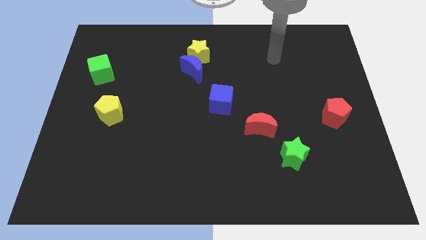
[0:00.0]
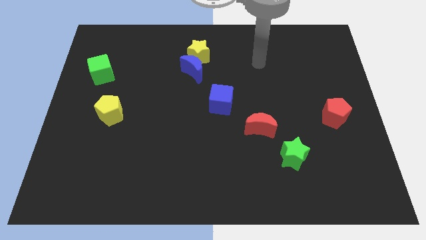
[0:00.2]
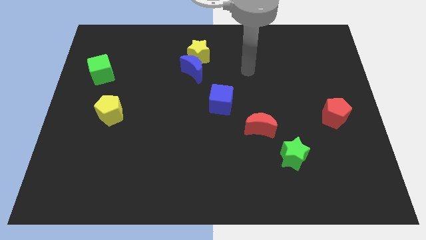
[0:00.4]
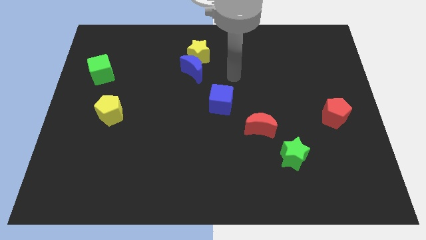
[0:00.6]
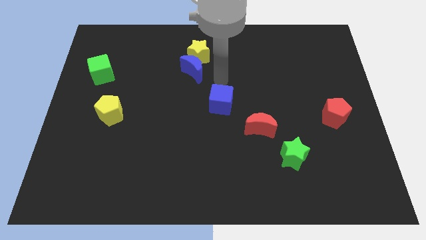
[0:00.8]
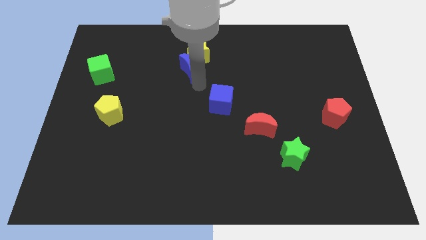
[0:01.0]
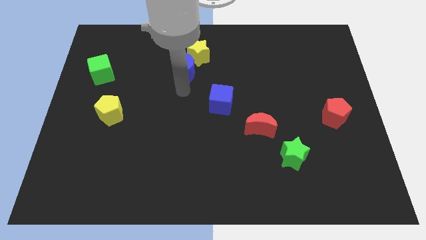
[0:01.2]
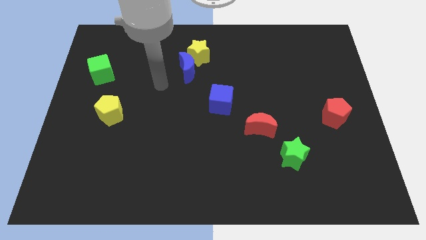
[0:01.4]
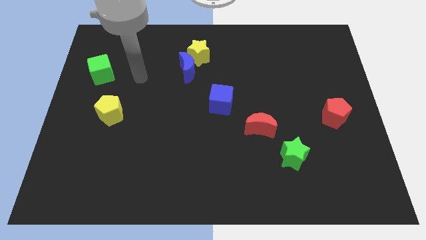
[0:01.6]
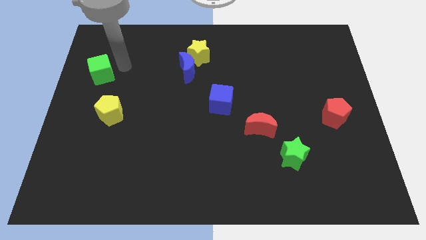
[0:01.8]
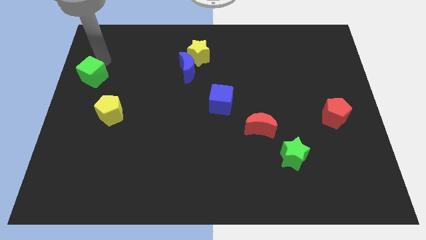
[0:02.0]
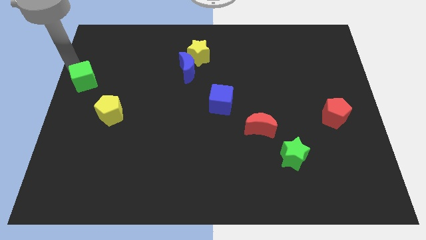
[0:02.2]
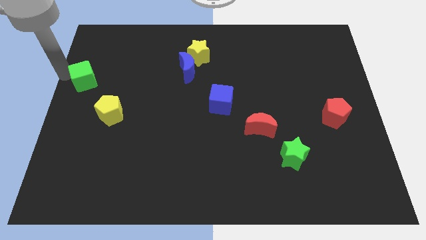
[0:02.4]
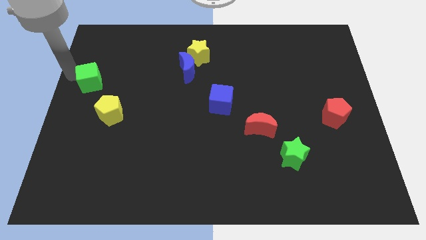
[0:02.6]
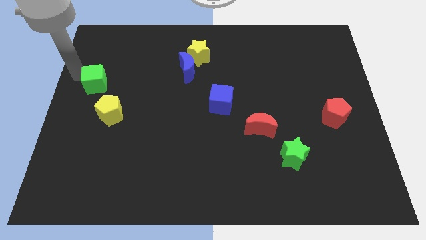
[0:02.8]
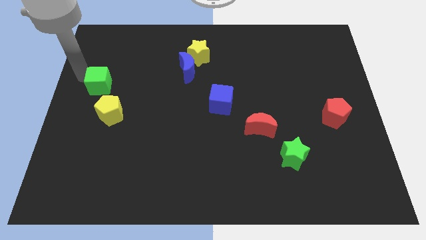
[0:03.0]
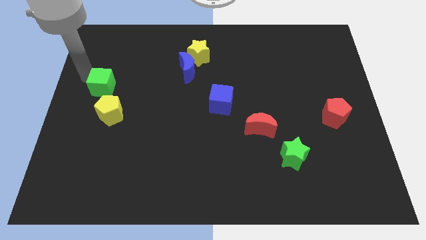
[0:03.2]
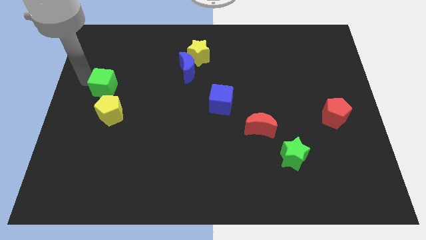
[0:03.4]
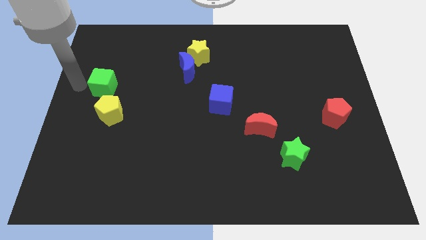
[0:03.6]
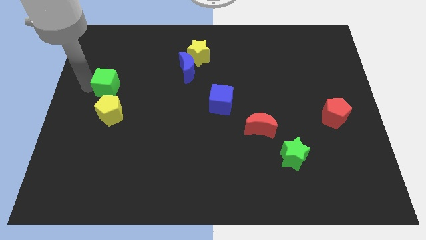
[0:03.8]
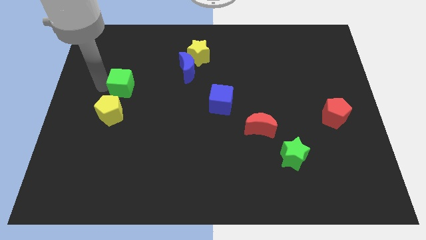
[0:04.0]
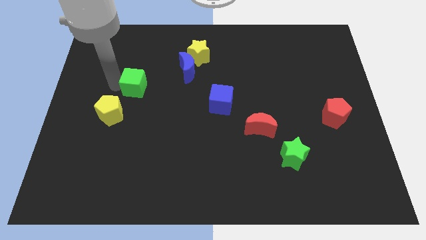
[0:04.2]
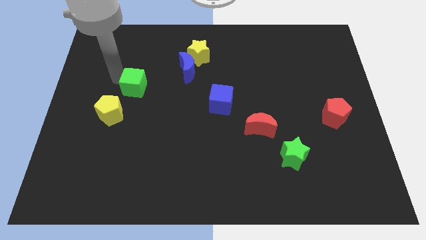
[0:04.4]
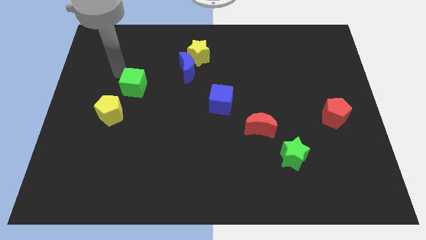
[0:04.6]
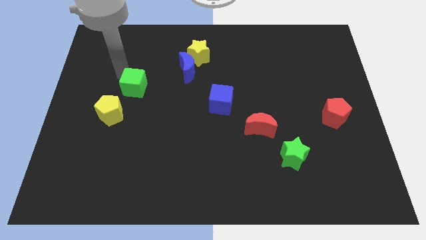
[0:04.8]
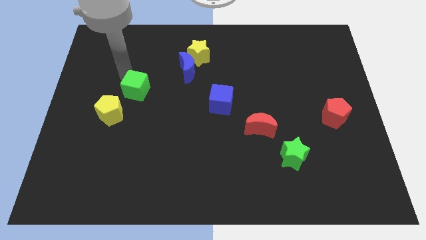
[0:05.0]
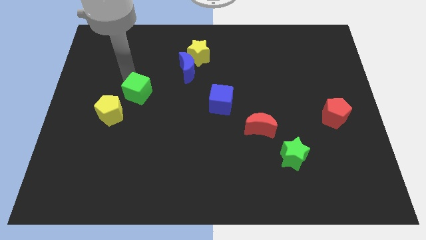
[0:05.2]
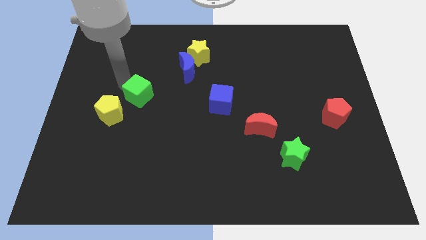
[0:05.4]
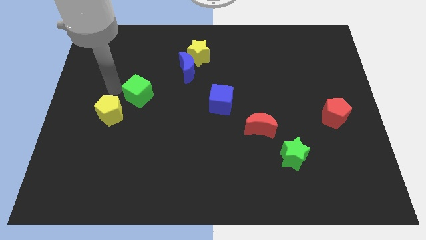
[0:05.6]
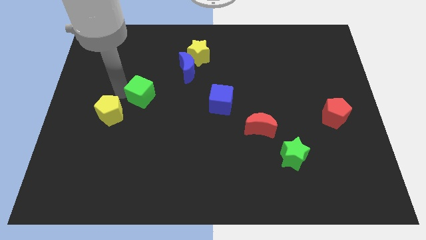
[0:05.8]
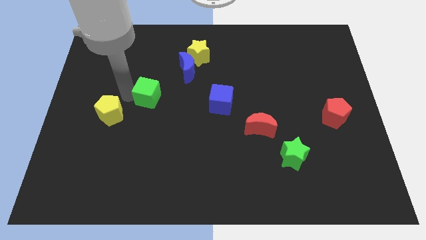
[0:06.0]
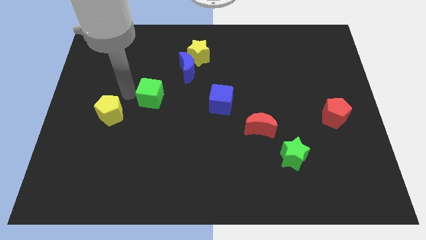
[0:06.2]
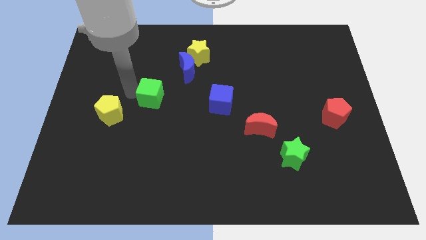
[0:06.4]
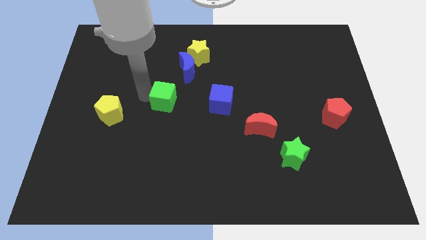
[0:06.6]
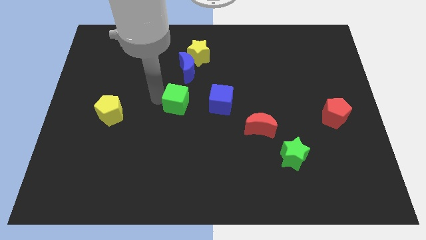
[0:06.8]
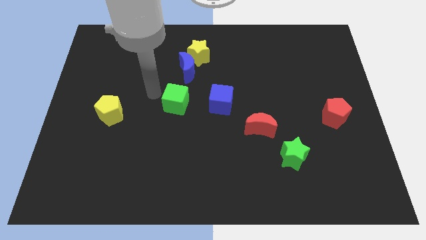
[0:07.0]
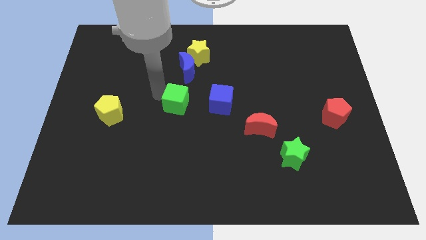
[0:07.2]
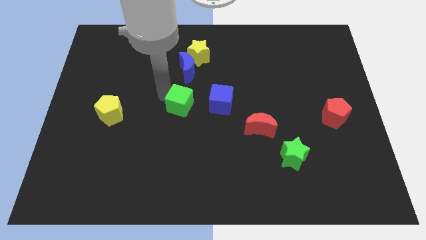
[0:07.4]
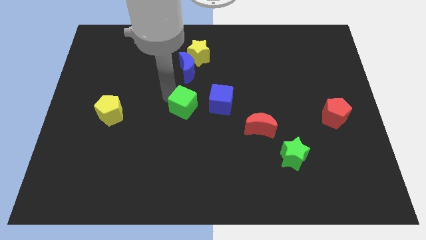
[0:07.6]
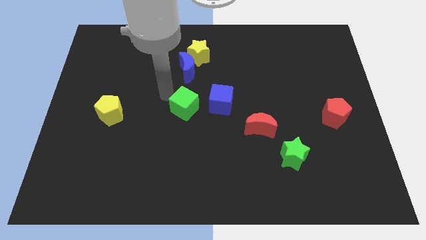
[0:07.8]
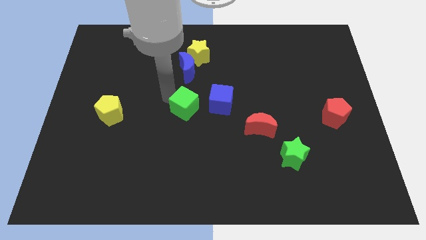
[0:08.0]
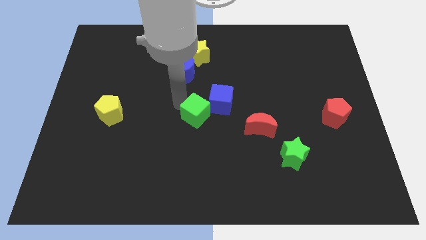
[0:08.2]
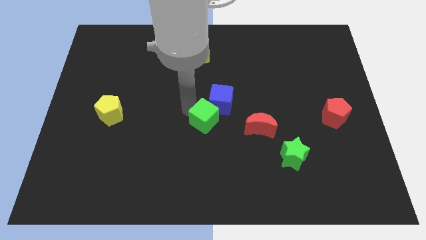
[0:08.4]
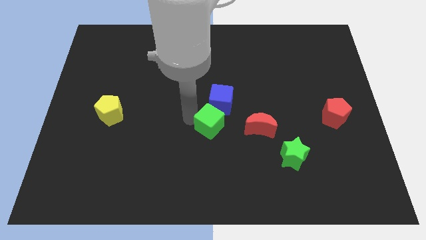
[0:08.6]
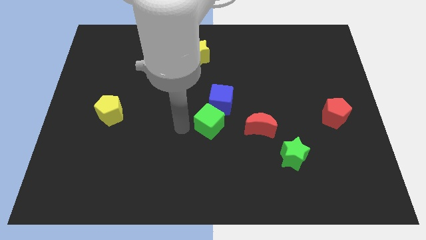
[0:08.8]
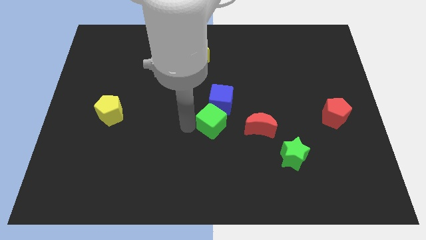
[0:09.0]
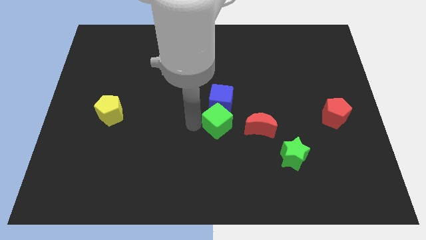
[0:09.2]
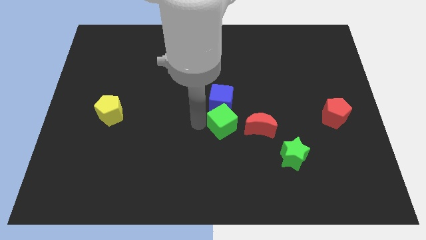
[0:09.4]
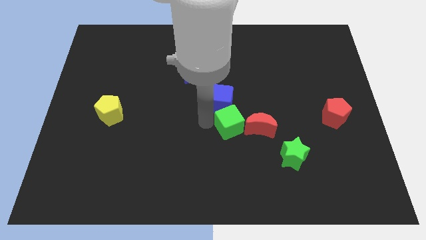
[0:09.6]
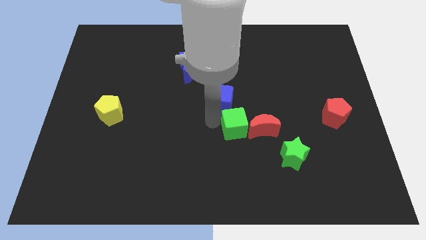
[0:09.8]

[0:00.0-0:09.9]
put the green cube close to the red moon
